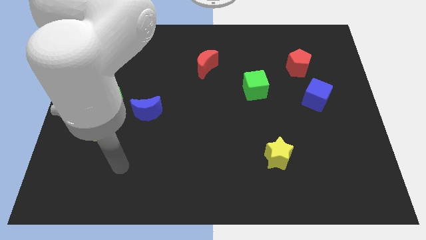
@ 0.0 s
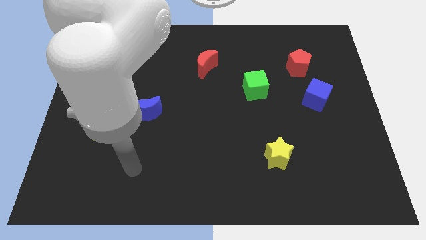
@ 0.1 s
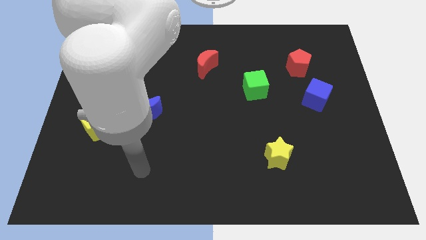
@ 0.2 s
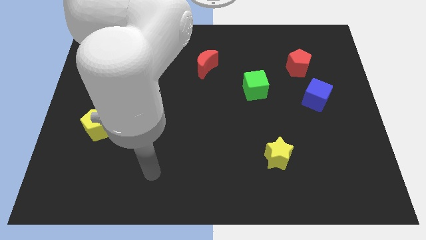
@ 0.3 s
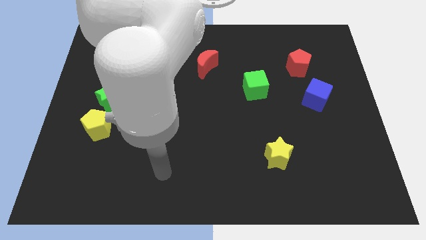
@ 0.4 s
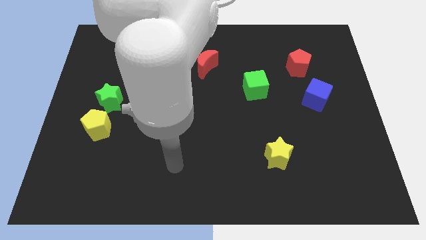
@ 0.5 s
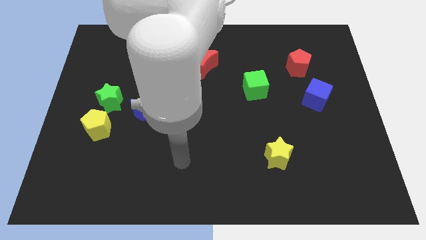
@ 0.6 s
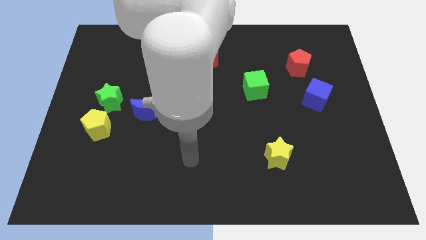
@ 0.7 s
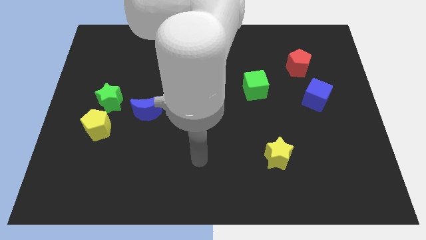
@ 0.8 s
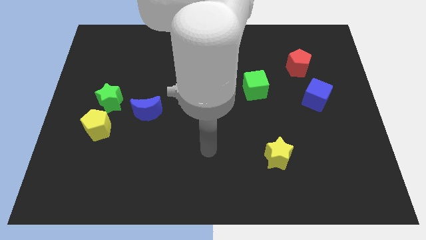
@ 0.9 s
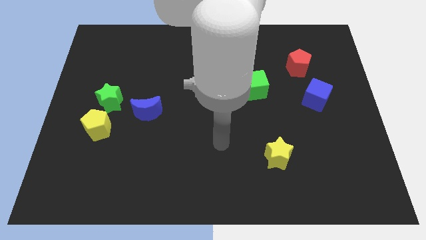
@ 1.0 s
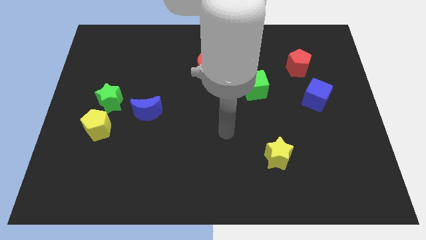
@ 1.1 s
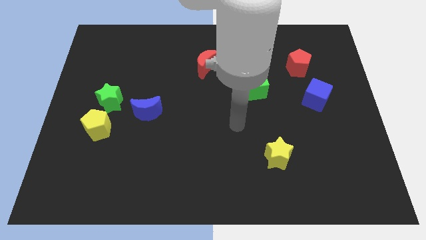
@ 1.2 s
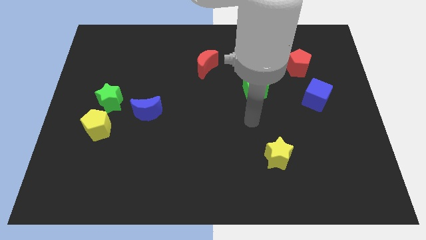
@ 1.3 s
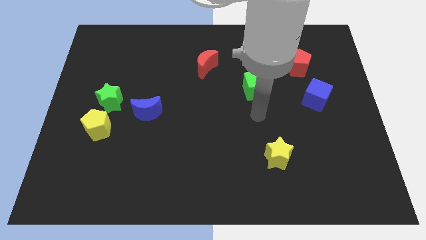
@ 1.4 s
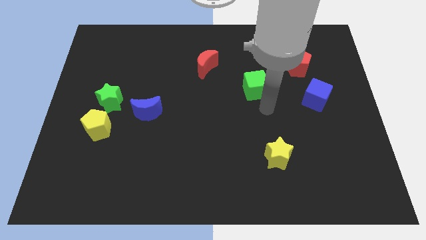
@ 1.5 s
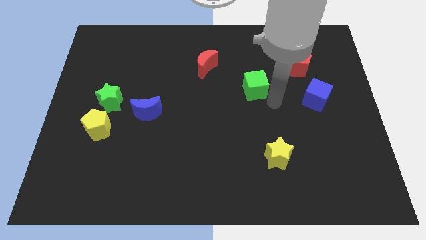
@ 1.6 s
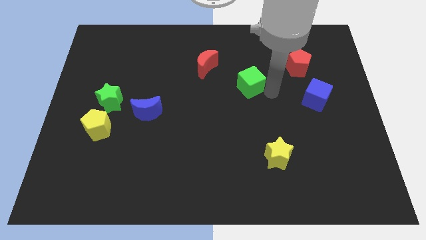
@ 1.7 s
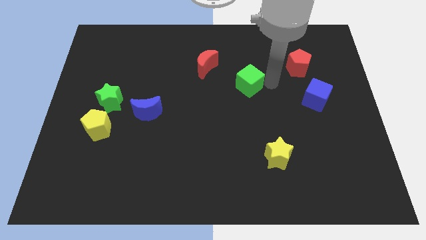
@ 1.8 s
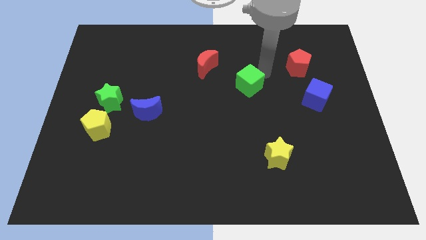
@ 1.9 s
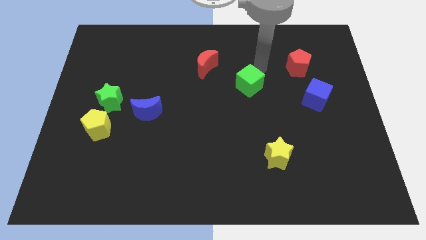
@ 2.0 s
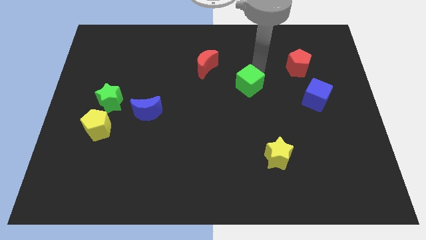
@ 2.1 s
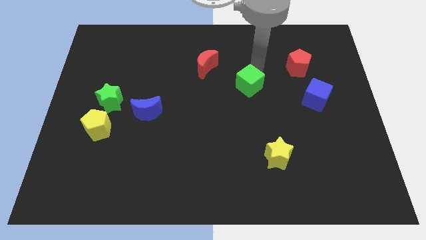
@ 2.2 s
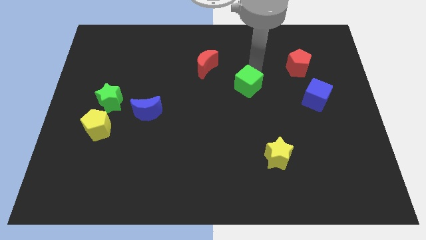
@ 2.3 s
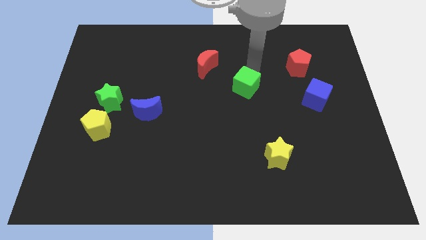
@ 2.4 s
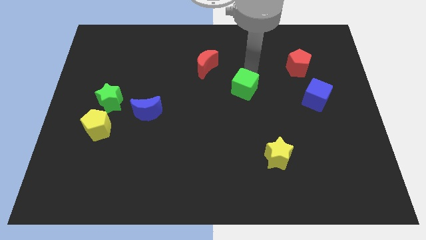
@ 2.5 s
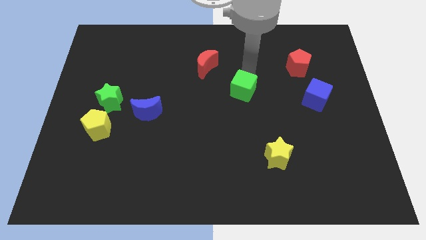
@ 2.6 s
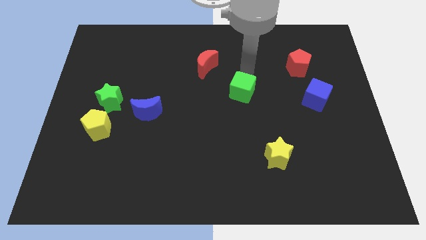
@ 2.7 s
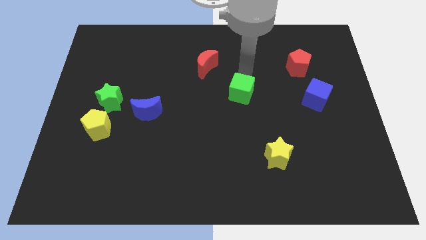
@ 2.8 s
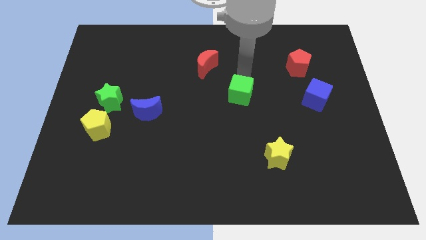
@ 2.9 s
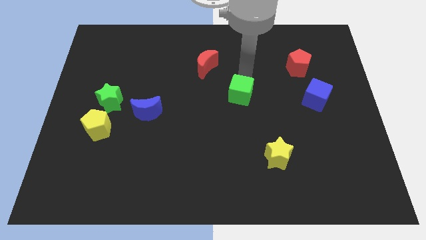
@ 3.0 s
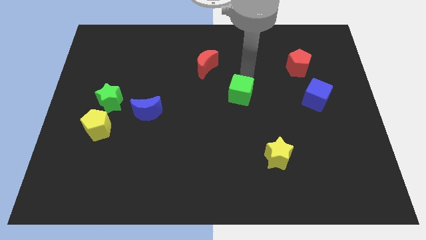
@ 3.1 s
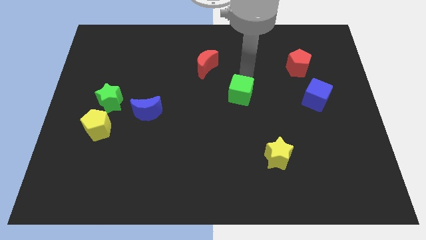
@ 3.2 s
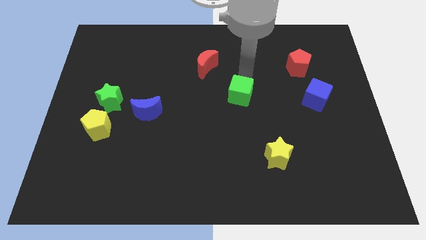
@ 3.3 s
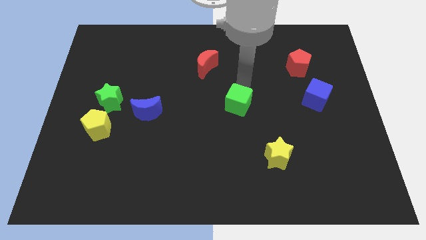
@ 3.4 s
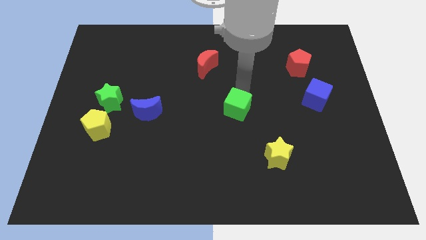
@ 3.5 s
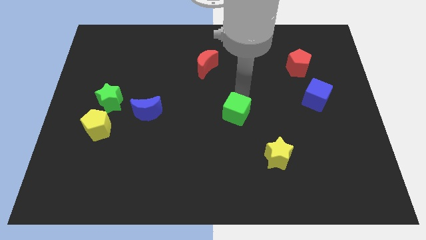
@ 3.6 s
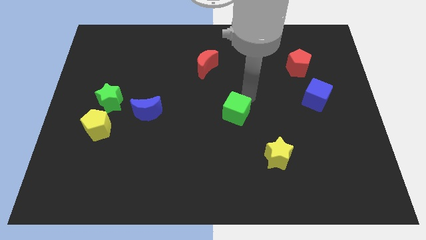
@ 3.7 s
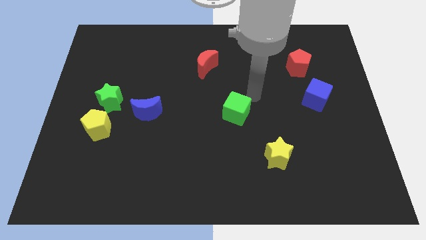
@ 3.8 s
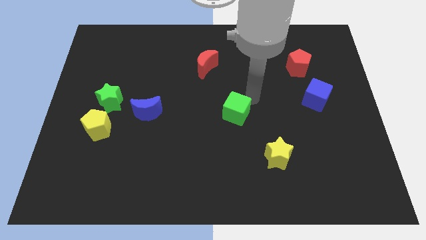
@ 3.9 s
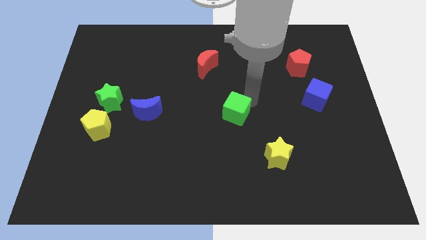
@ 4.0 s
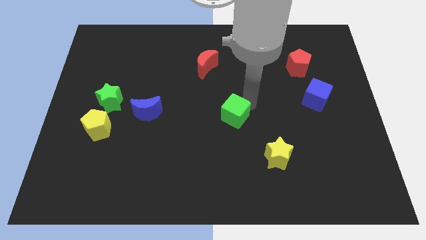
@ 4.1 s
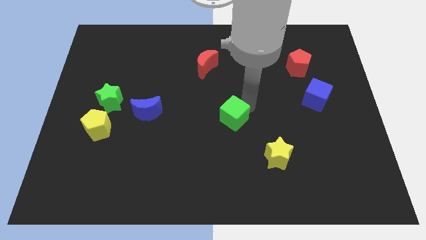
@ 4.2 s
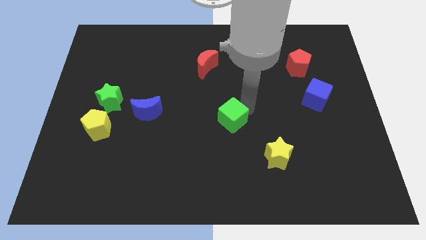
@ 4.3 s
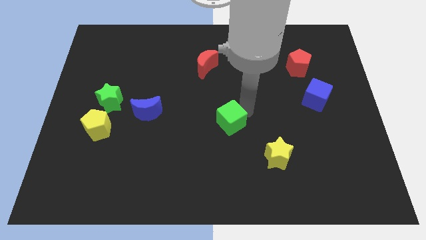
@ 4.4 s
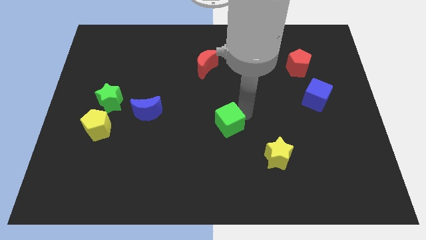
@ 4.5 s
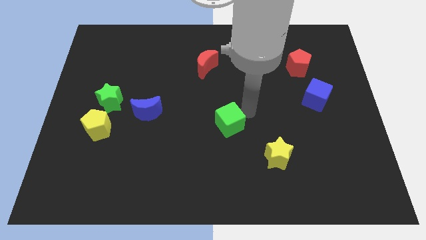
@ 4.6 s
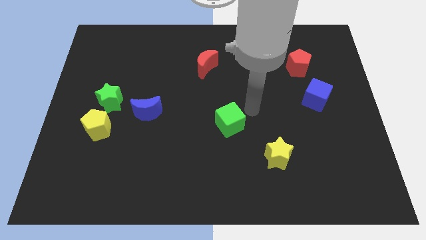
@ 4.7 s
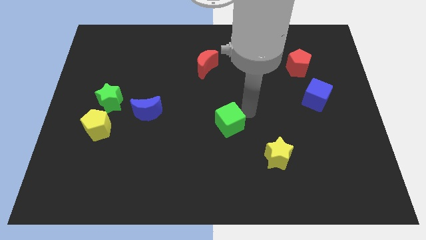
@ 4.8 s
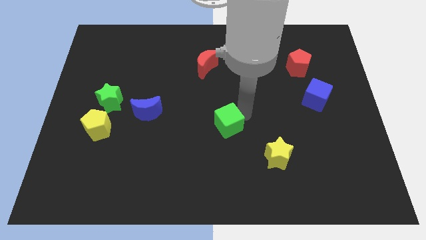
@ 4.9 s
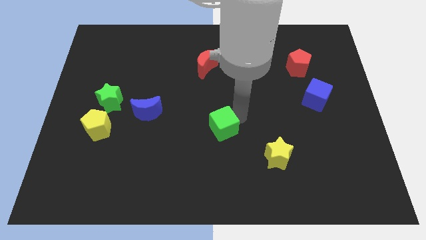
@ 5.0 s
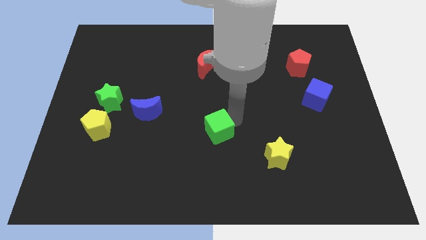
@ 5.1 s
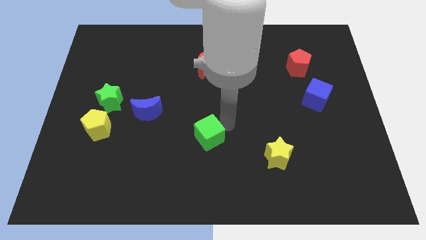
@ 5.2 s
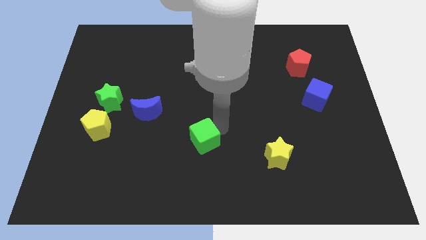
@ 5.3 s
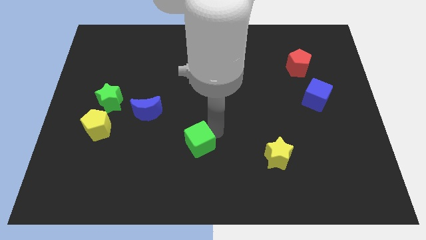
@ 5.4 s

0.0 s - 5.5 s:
push the green cube diagonally downwards and to the left

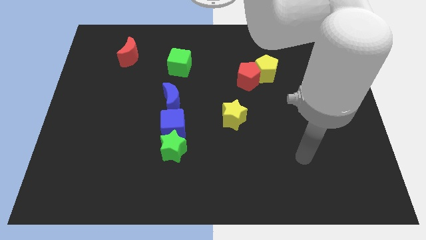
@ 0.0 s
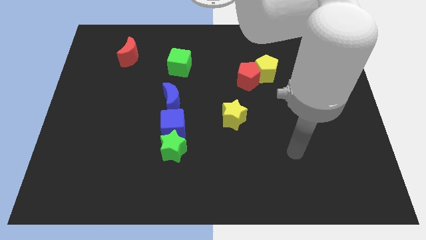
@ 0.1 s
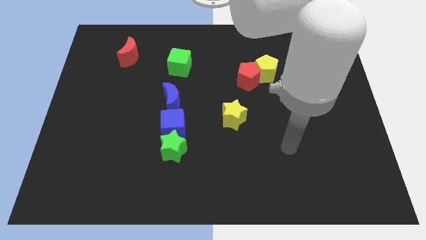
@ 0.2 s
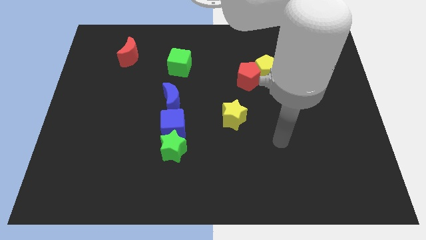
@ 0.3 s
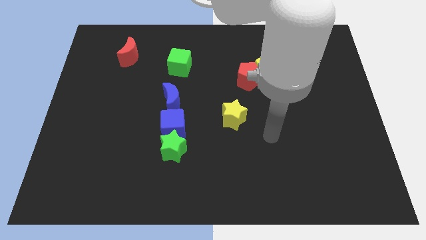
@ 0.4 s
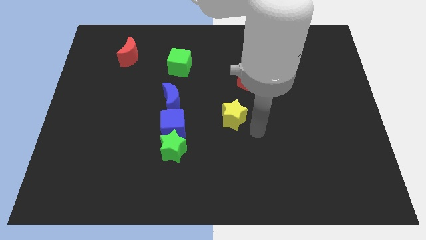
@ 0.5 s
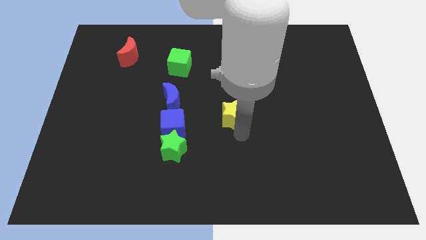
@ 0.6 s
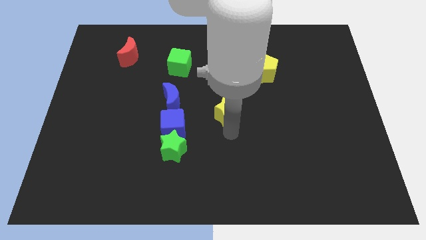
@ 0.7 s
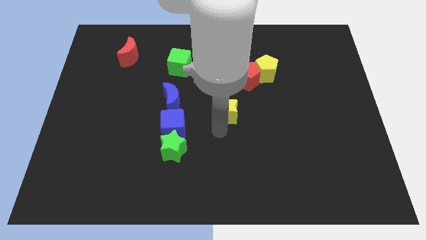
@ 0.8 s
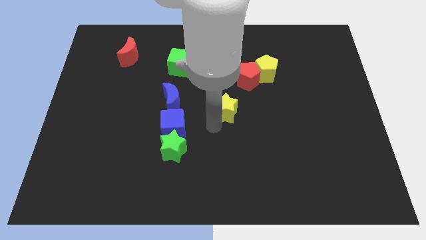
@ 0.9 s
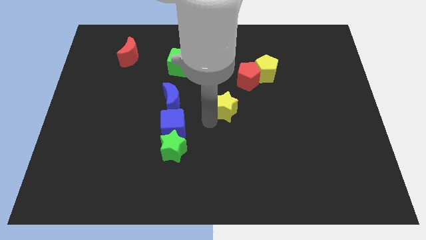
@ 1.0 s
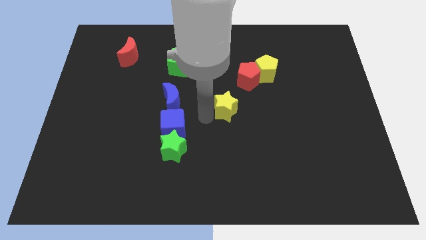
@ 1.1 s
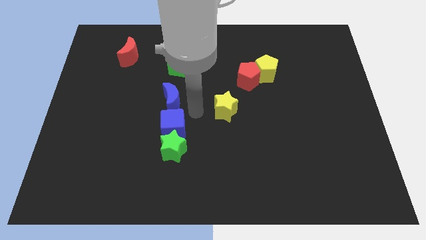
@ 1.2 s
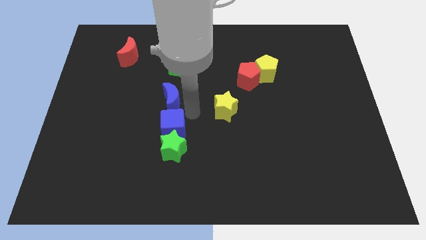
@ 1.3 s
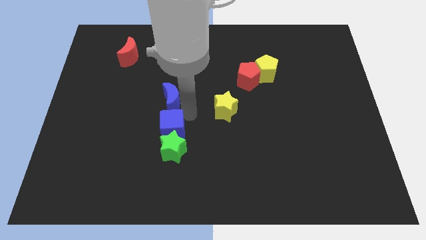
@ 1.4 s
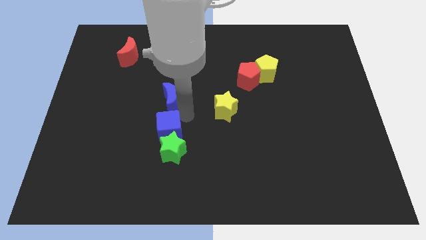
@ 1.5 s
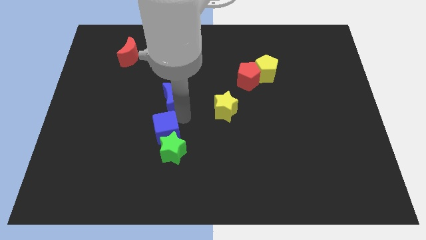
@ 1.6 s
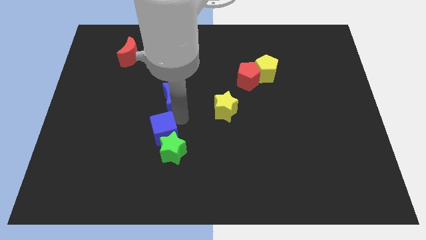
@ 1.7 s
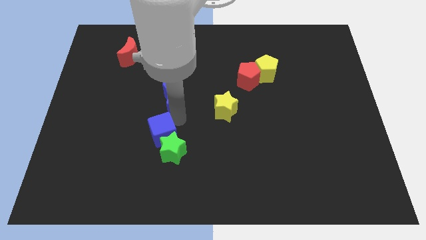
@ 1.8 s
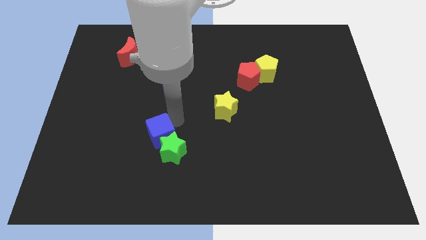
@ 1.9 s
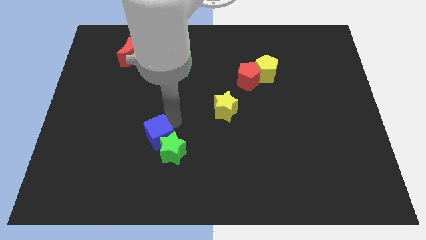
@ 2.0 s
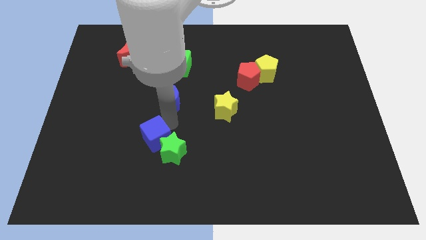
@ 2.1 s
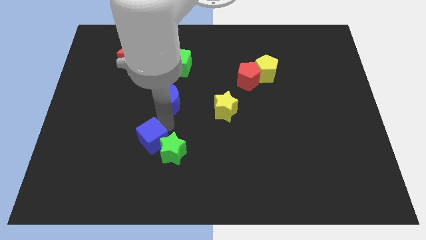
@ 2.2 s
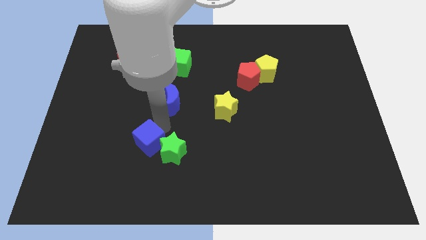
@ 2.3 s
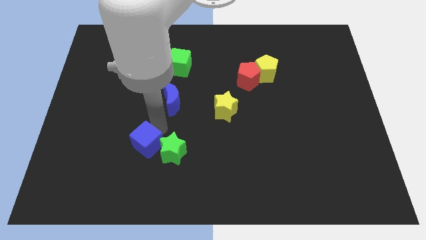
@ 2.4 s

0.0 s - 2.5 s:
slightly move the blue cube diagonally downwards and to the left
